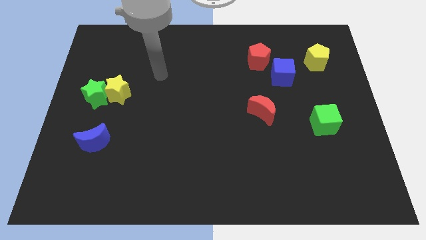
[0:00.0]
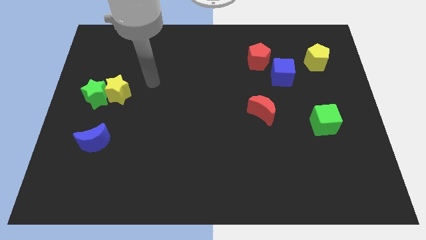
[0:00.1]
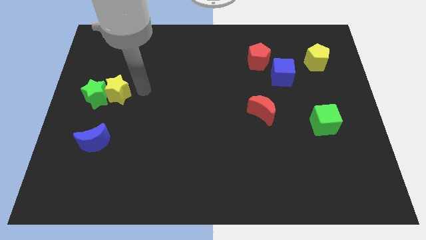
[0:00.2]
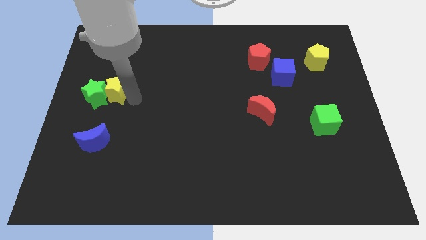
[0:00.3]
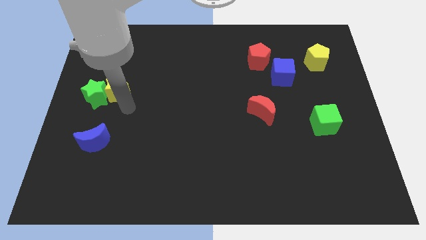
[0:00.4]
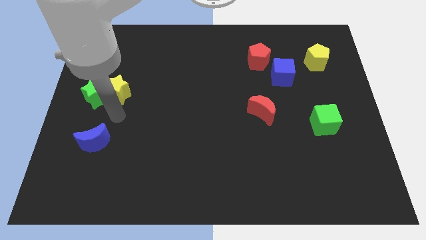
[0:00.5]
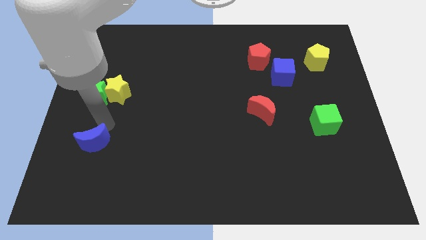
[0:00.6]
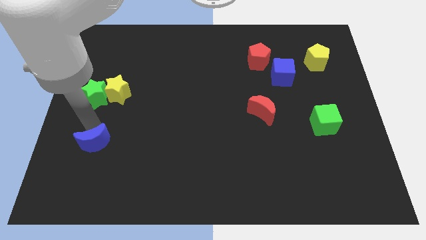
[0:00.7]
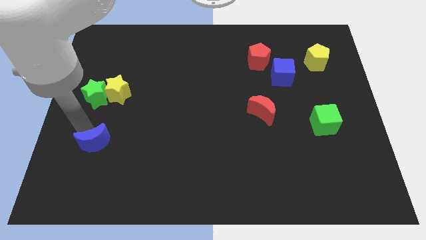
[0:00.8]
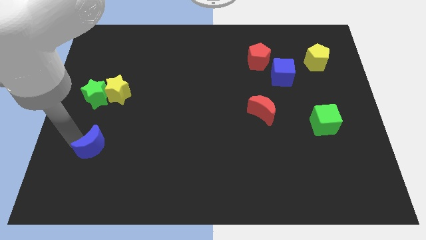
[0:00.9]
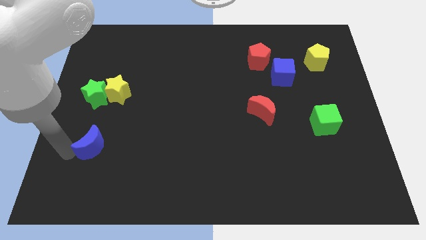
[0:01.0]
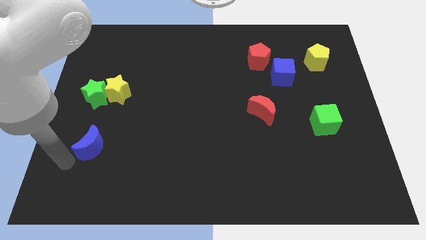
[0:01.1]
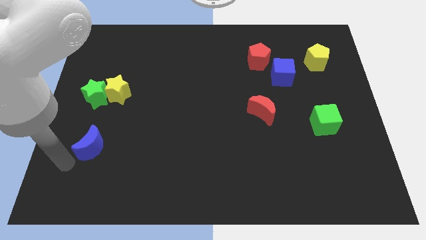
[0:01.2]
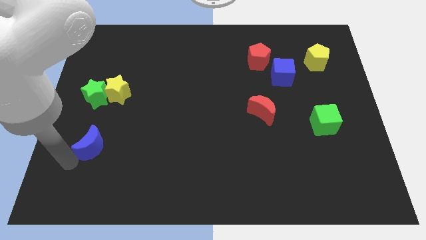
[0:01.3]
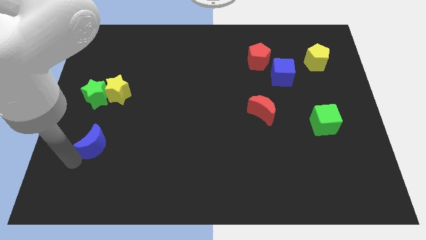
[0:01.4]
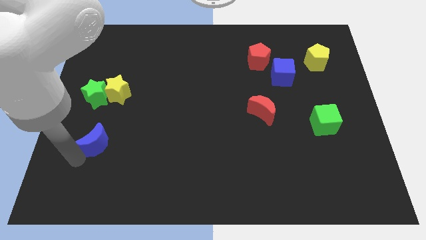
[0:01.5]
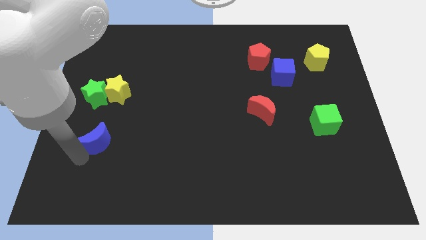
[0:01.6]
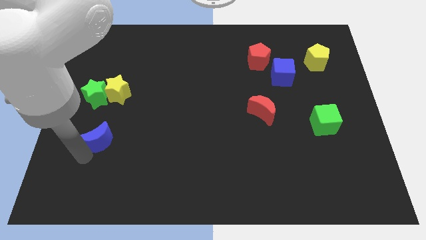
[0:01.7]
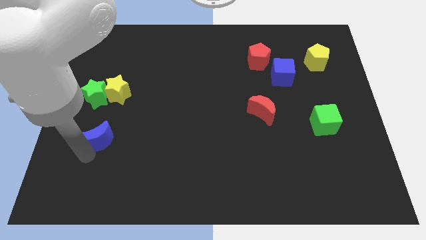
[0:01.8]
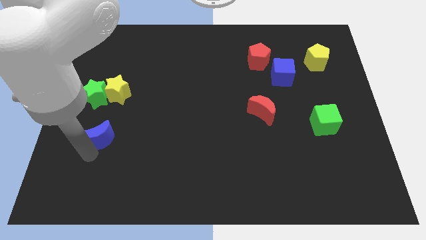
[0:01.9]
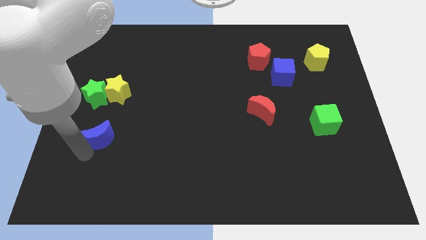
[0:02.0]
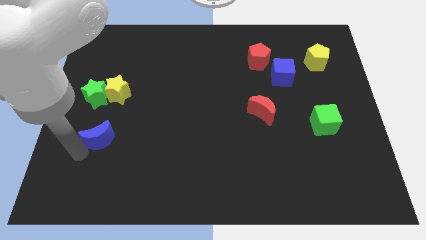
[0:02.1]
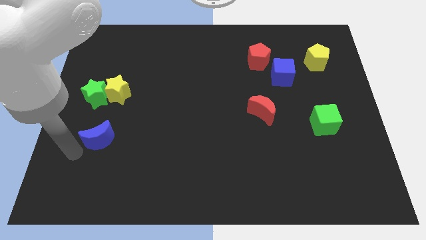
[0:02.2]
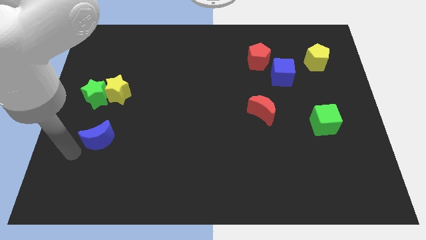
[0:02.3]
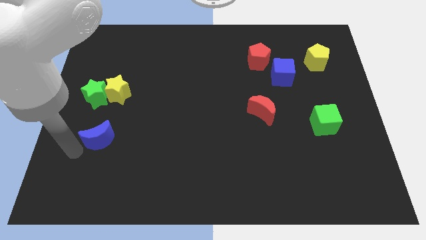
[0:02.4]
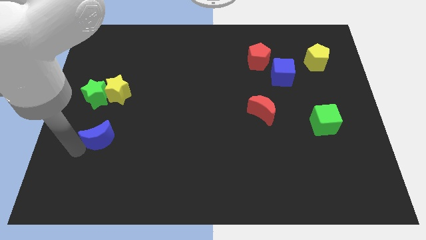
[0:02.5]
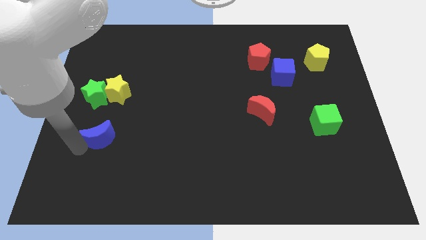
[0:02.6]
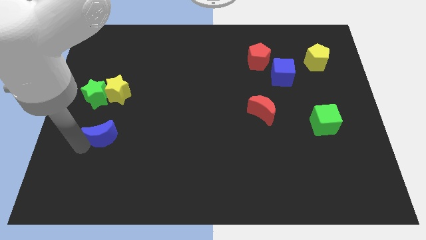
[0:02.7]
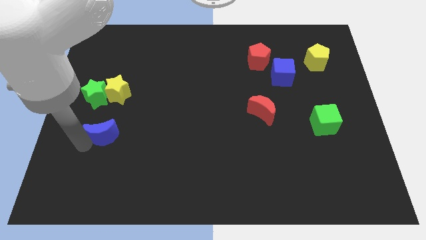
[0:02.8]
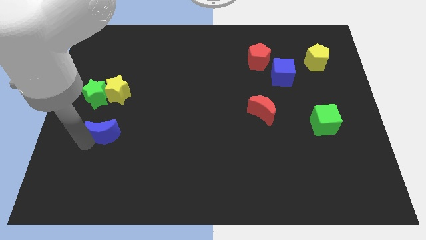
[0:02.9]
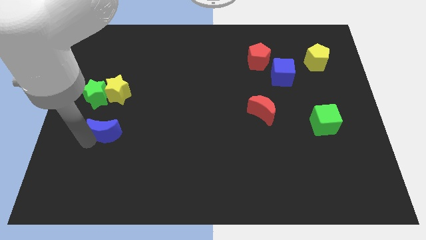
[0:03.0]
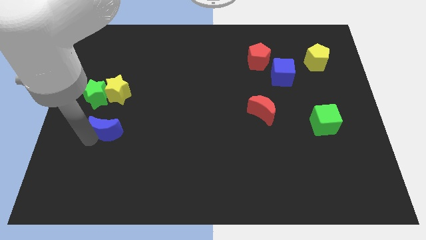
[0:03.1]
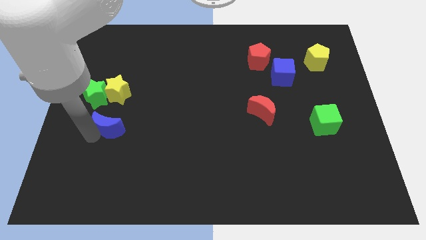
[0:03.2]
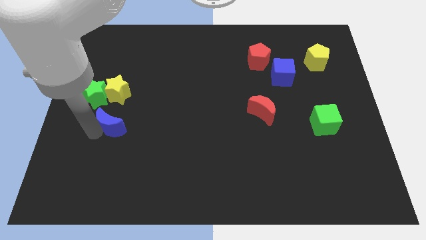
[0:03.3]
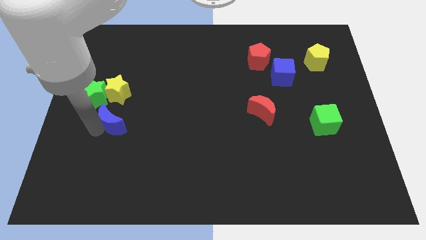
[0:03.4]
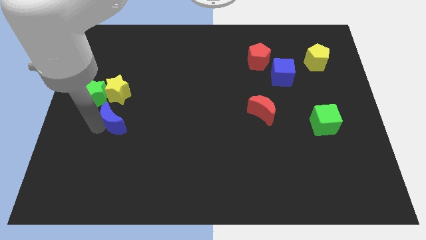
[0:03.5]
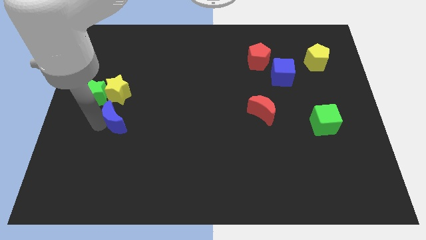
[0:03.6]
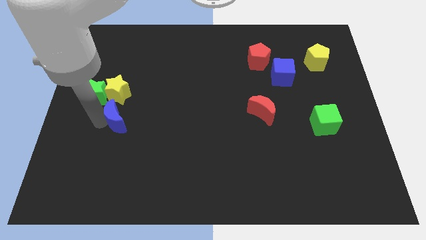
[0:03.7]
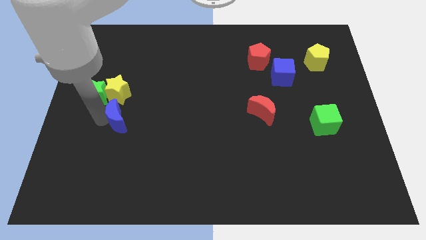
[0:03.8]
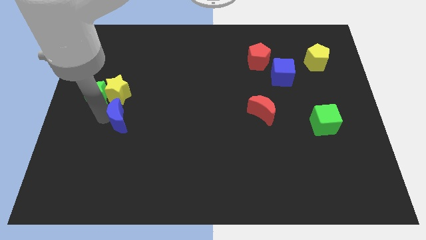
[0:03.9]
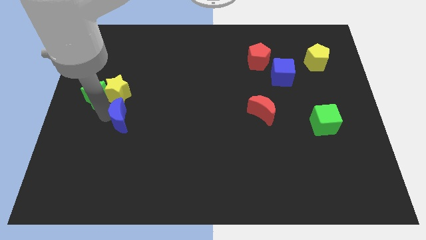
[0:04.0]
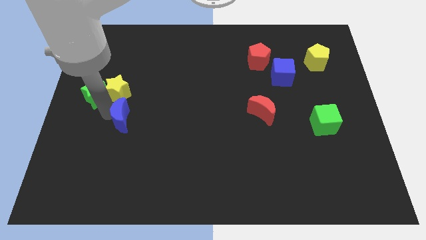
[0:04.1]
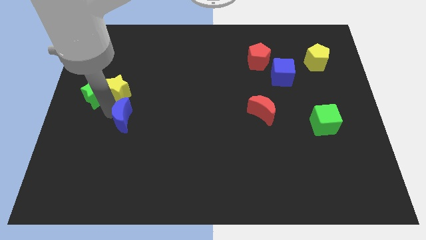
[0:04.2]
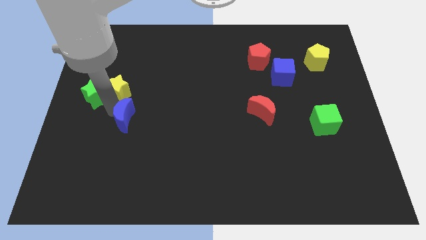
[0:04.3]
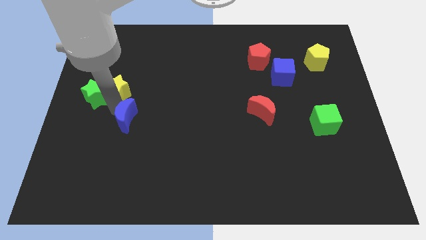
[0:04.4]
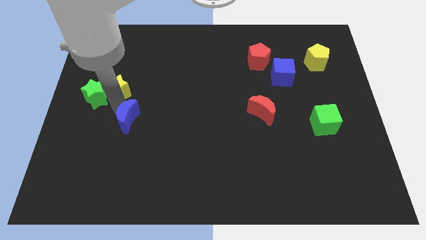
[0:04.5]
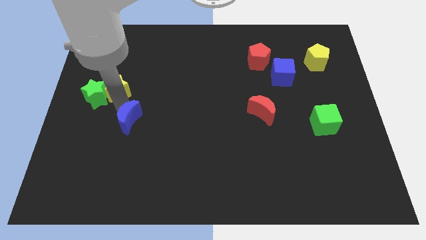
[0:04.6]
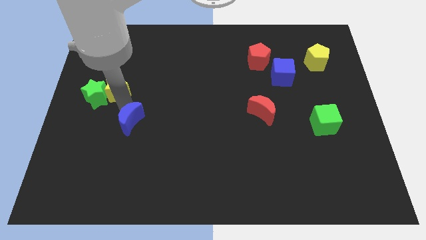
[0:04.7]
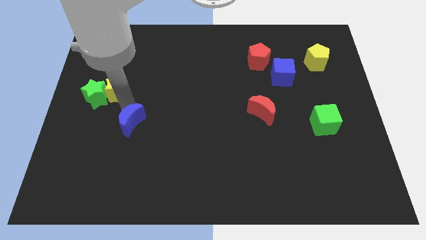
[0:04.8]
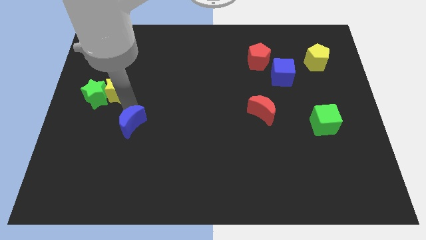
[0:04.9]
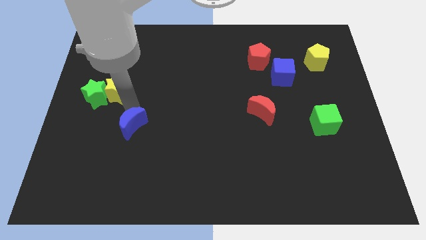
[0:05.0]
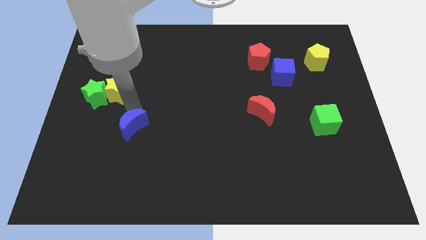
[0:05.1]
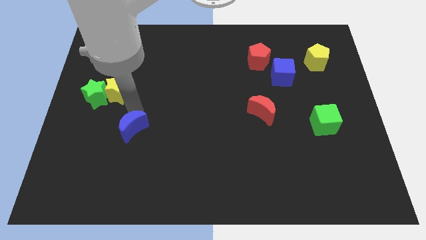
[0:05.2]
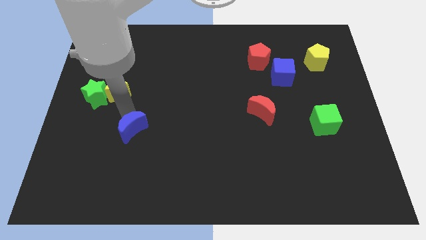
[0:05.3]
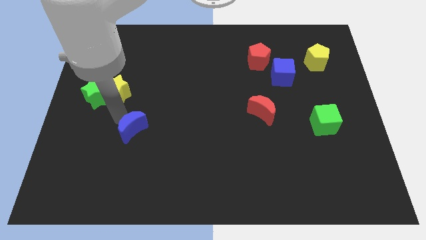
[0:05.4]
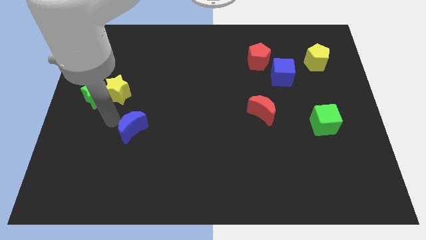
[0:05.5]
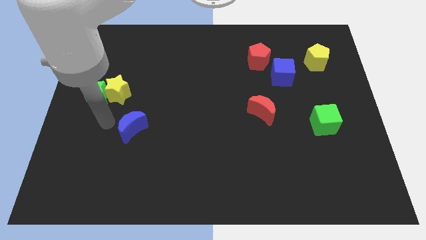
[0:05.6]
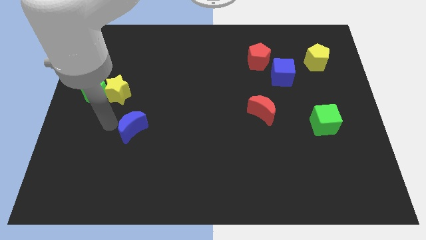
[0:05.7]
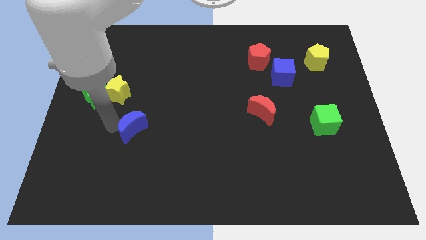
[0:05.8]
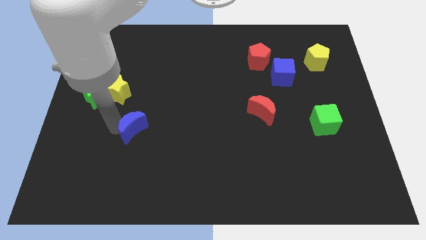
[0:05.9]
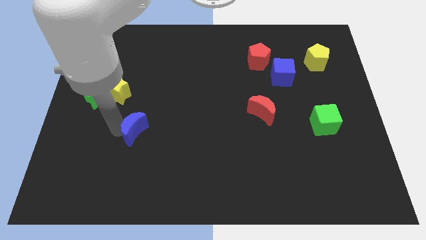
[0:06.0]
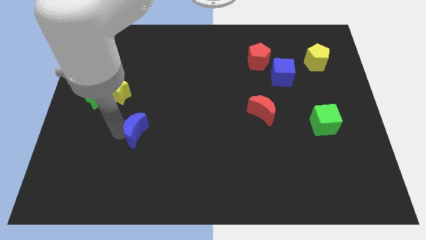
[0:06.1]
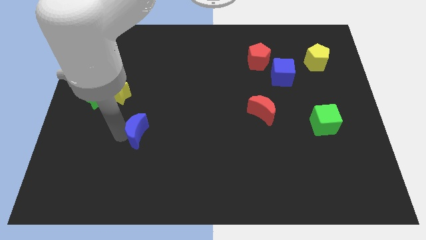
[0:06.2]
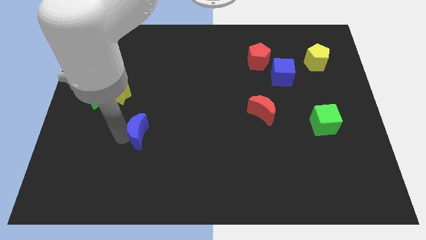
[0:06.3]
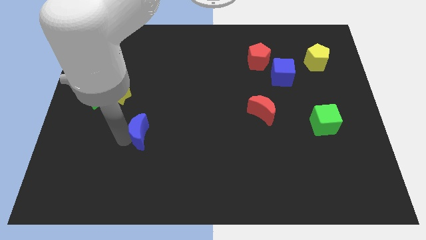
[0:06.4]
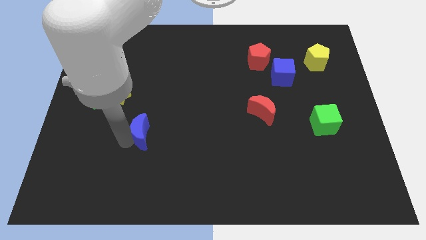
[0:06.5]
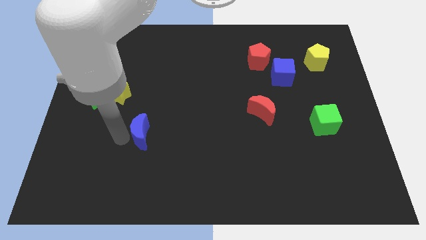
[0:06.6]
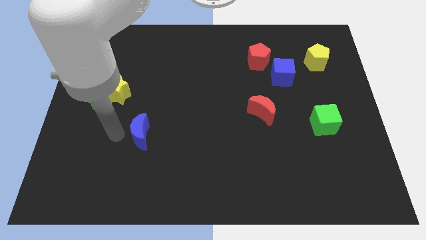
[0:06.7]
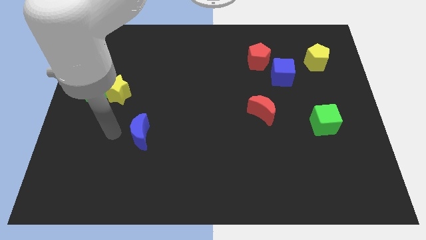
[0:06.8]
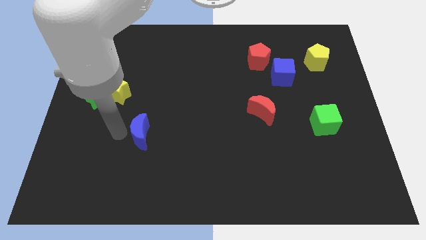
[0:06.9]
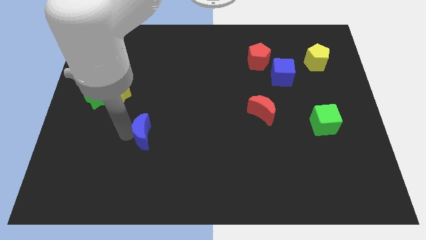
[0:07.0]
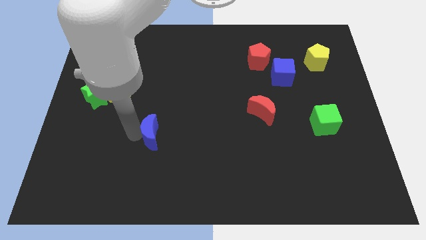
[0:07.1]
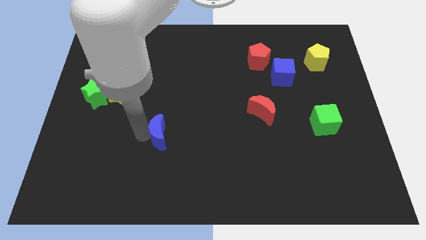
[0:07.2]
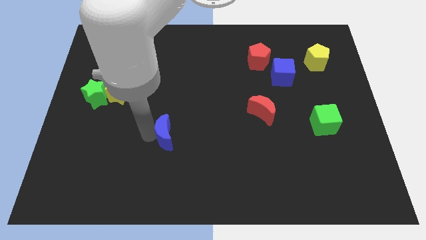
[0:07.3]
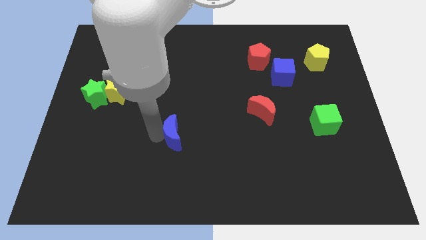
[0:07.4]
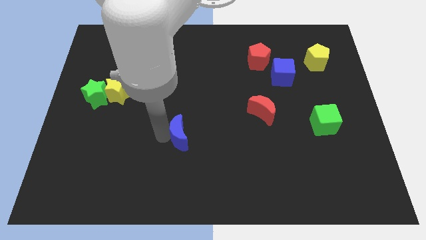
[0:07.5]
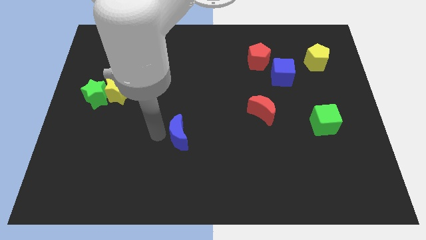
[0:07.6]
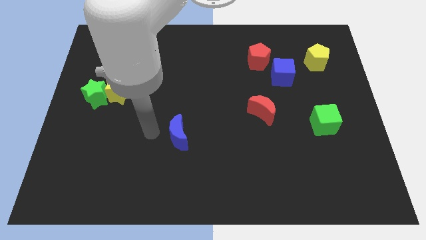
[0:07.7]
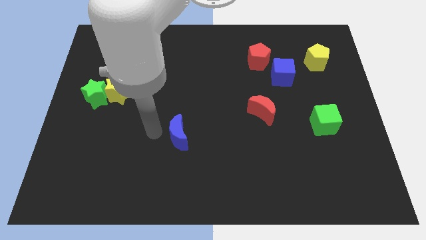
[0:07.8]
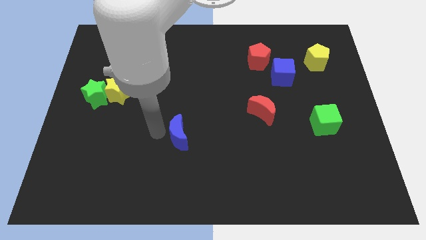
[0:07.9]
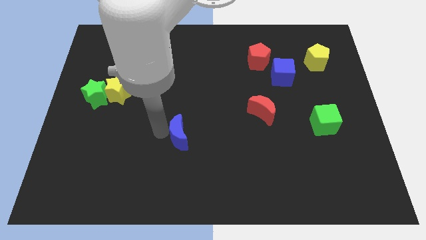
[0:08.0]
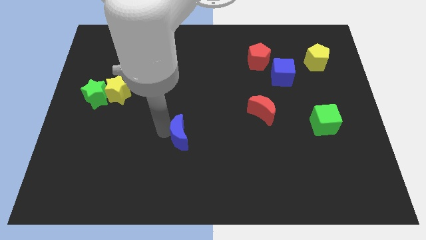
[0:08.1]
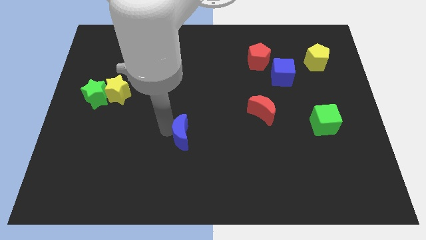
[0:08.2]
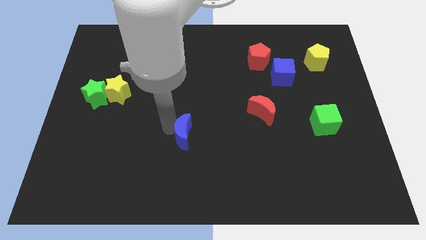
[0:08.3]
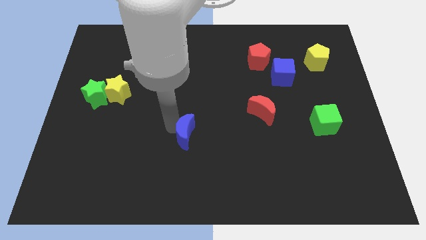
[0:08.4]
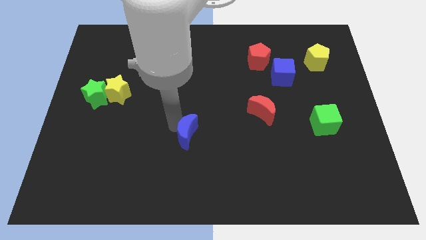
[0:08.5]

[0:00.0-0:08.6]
push the blue moon to the right

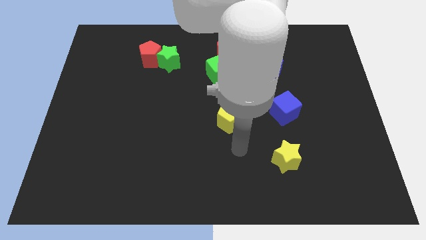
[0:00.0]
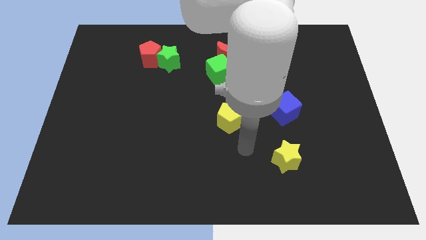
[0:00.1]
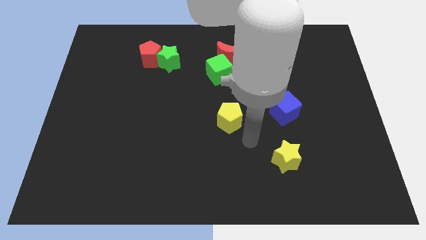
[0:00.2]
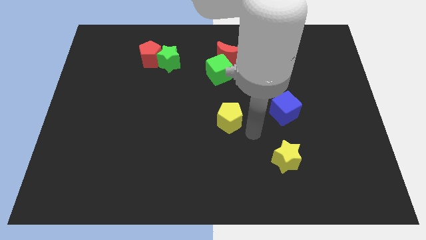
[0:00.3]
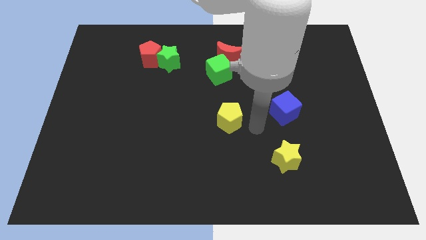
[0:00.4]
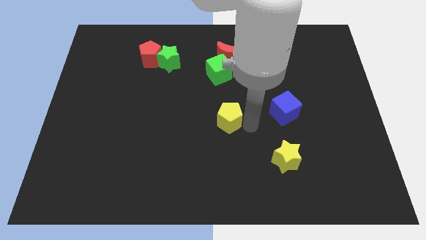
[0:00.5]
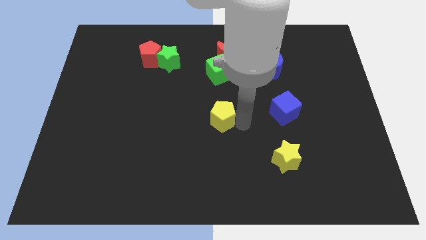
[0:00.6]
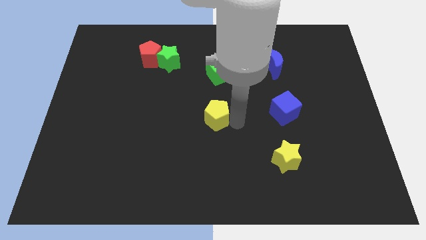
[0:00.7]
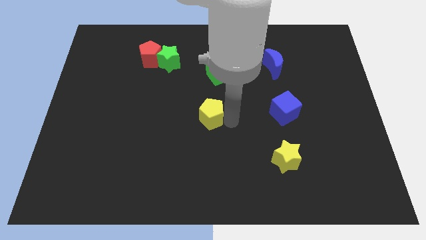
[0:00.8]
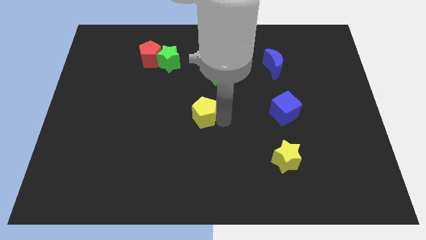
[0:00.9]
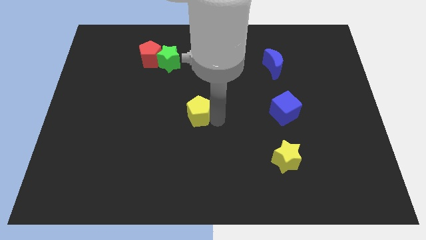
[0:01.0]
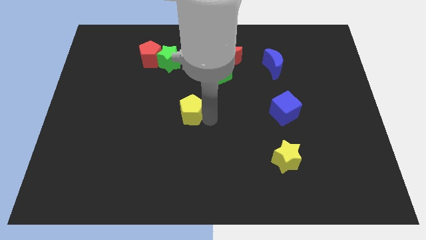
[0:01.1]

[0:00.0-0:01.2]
push the yellow pentagon a little diagonally up and left
